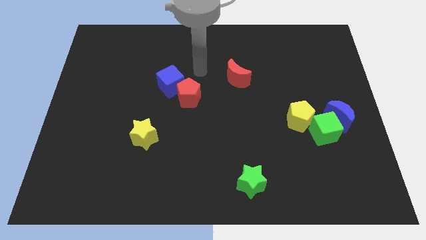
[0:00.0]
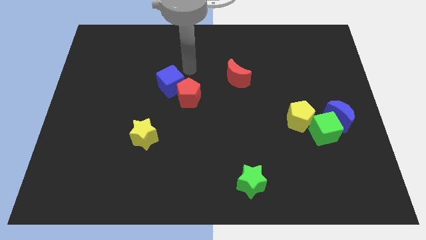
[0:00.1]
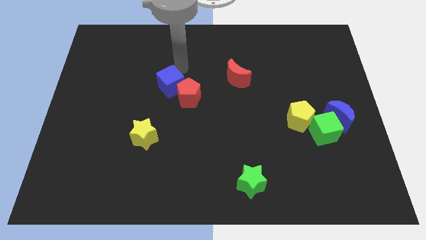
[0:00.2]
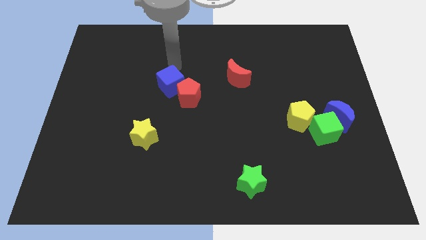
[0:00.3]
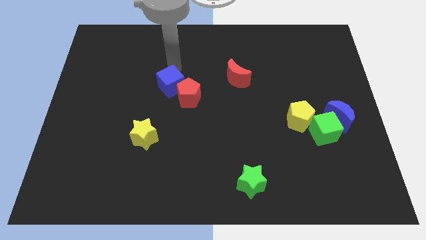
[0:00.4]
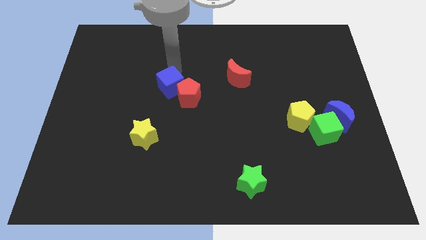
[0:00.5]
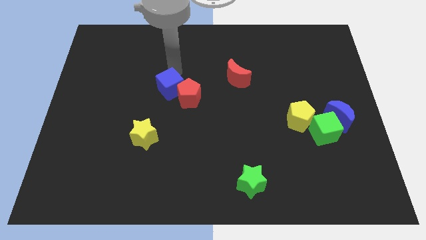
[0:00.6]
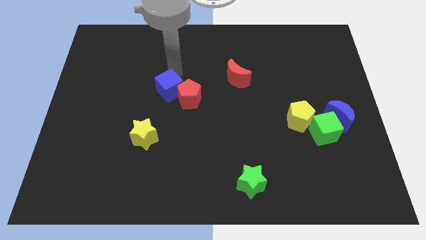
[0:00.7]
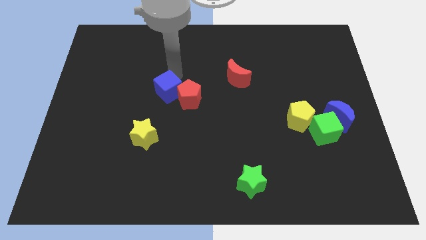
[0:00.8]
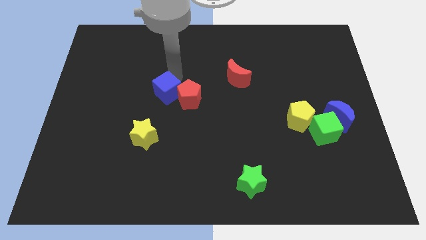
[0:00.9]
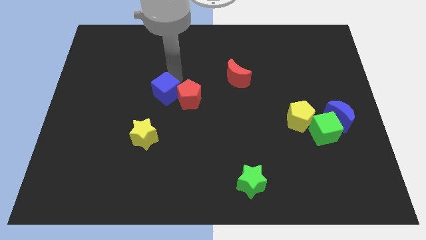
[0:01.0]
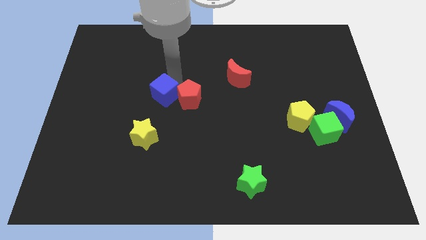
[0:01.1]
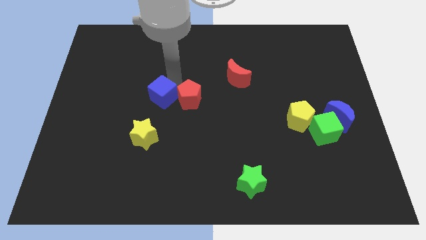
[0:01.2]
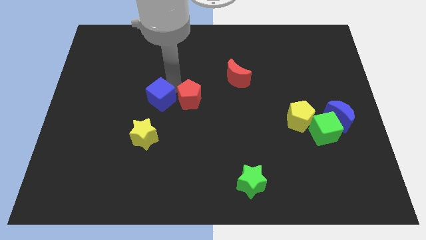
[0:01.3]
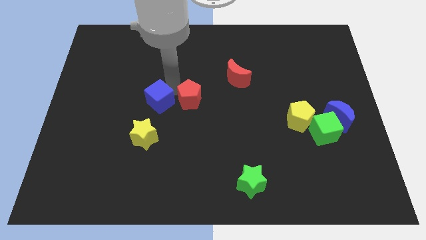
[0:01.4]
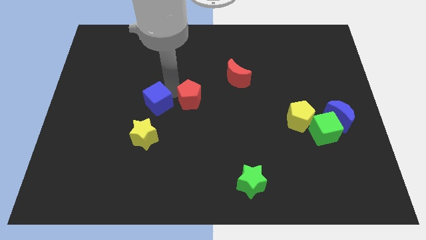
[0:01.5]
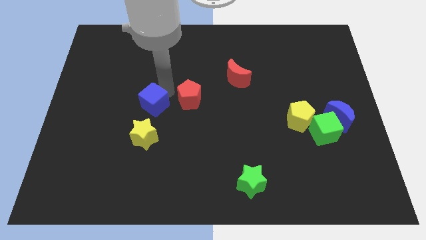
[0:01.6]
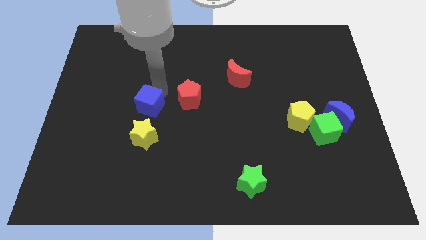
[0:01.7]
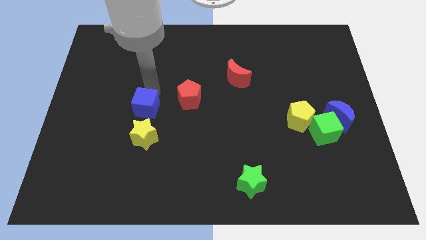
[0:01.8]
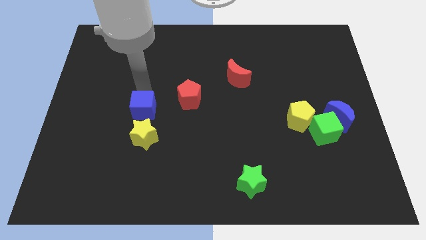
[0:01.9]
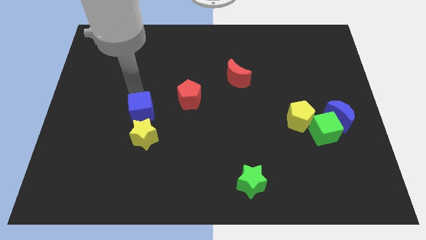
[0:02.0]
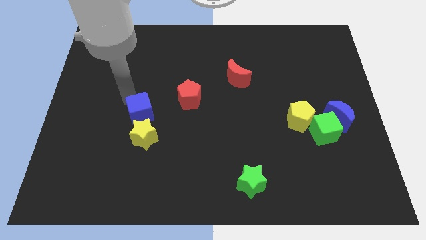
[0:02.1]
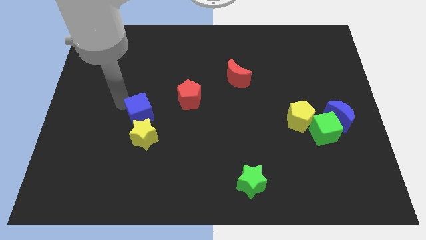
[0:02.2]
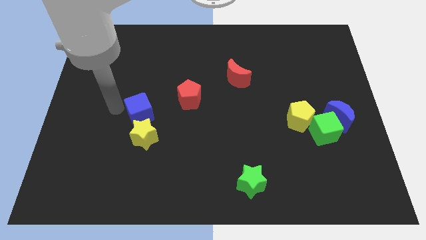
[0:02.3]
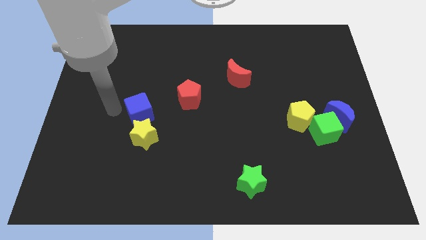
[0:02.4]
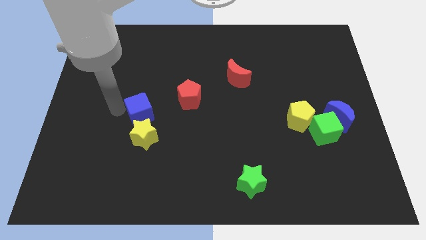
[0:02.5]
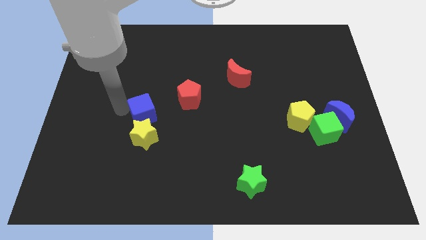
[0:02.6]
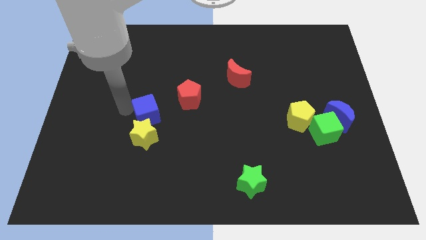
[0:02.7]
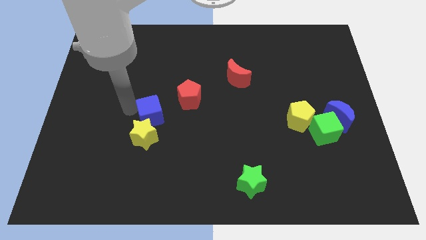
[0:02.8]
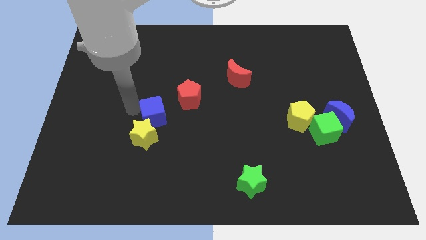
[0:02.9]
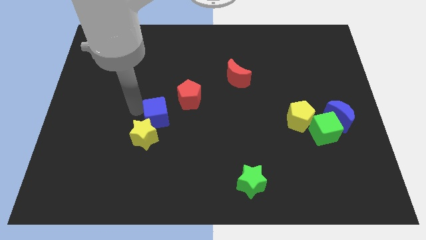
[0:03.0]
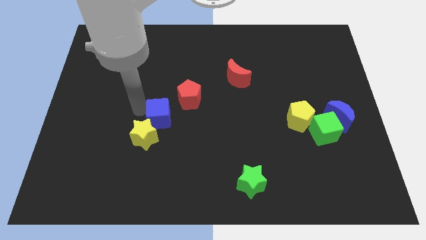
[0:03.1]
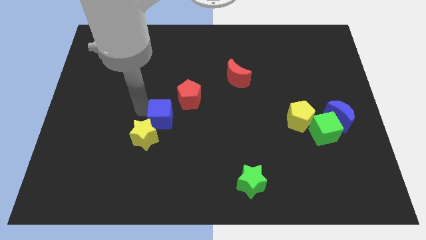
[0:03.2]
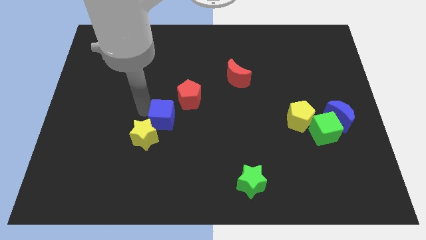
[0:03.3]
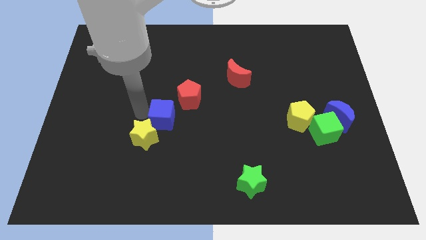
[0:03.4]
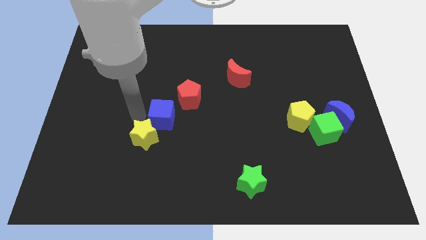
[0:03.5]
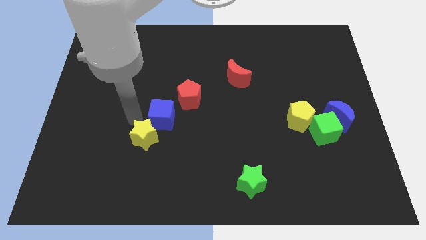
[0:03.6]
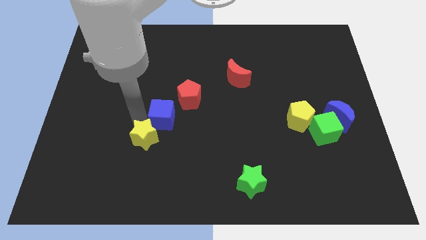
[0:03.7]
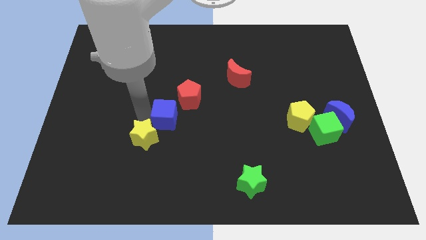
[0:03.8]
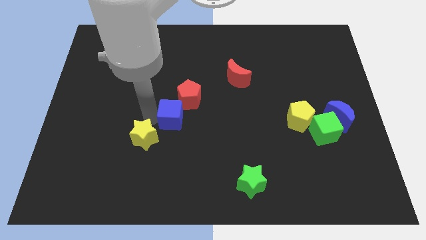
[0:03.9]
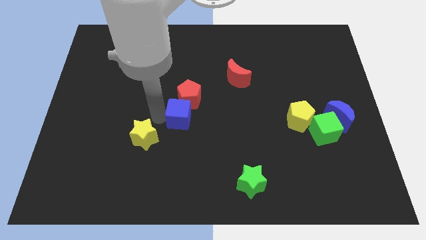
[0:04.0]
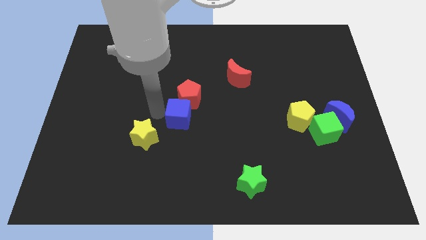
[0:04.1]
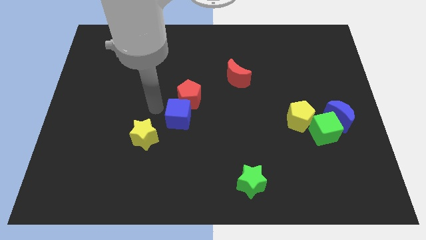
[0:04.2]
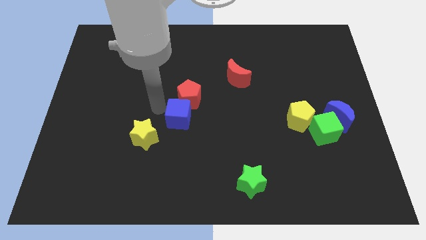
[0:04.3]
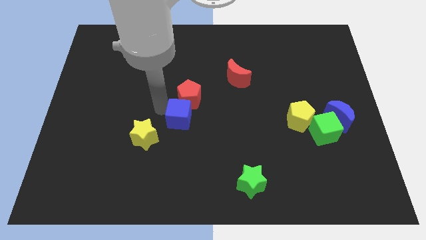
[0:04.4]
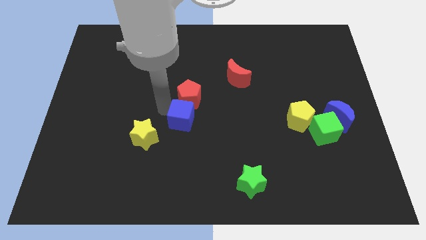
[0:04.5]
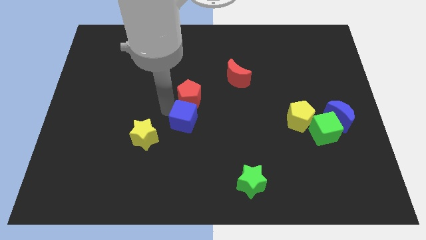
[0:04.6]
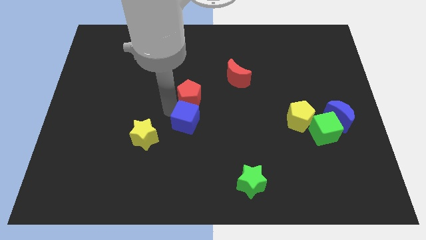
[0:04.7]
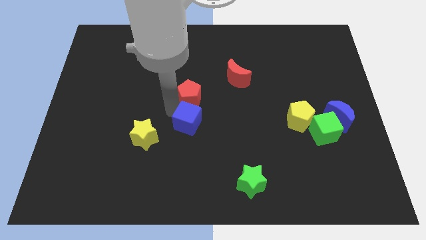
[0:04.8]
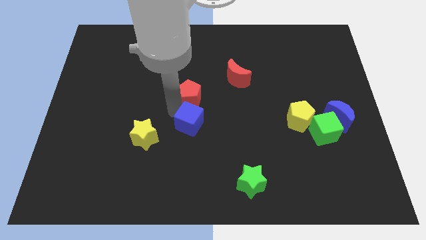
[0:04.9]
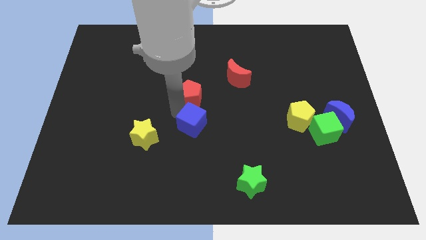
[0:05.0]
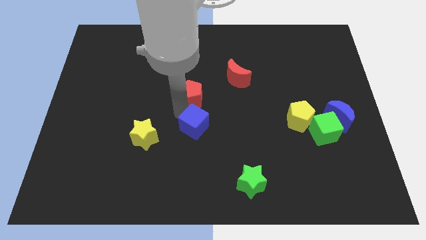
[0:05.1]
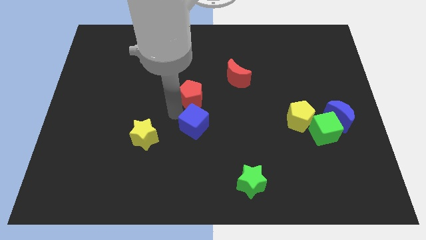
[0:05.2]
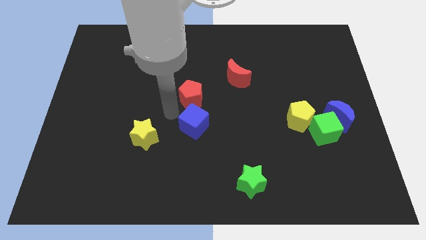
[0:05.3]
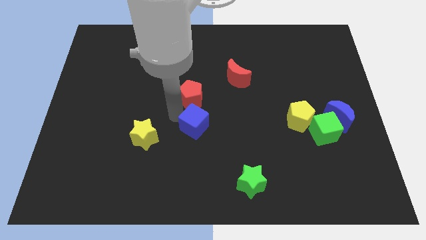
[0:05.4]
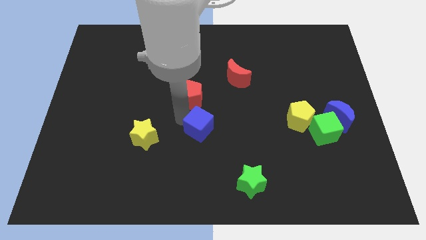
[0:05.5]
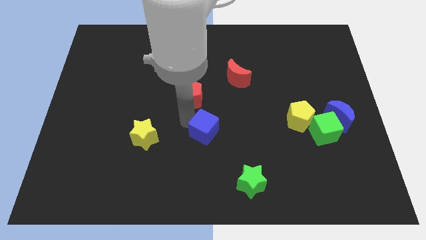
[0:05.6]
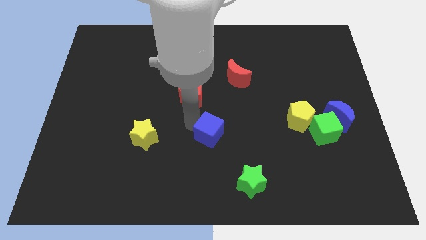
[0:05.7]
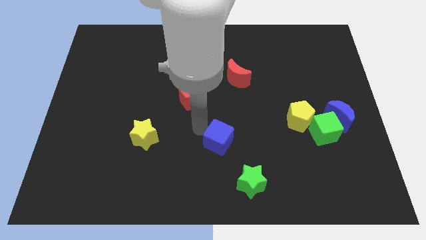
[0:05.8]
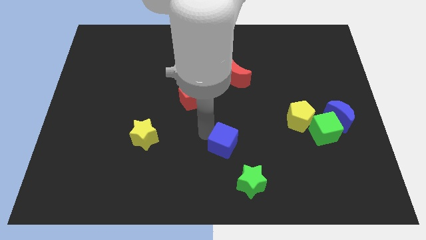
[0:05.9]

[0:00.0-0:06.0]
push the blue cube downwards and to the right

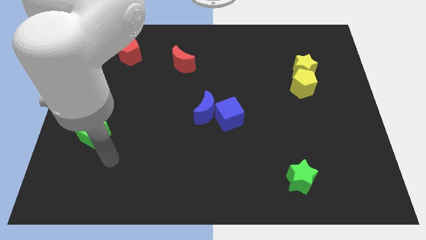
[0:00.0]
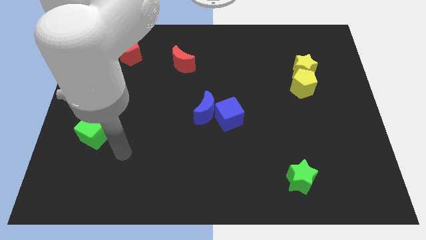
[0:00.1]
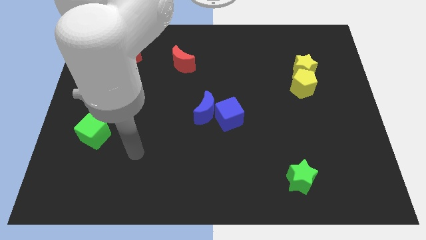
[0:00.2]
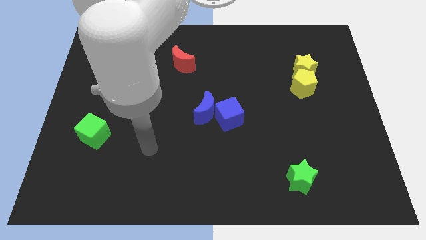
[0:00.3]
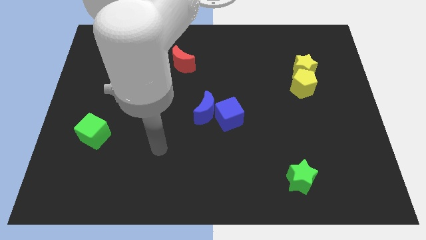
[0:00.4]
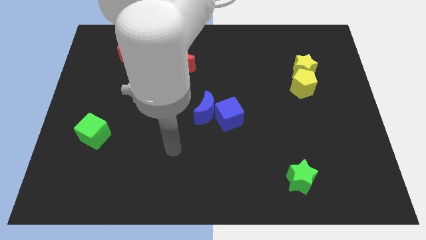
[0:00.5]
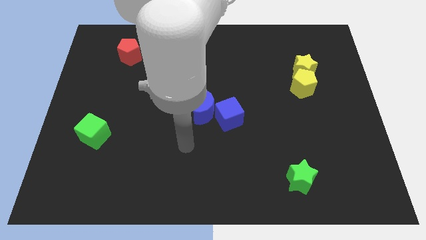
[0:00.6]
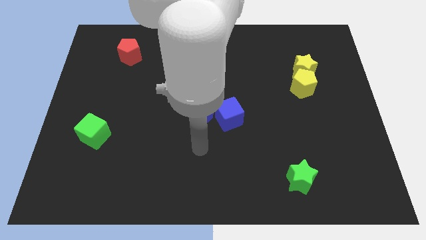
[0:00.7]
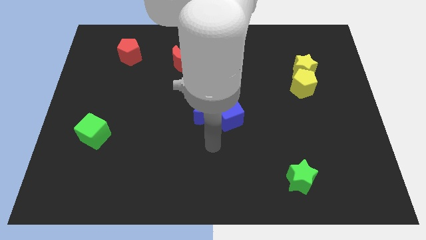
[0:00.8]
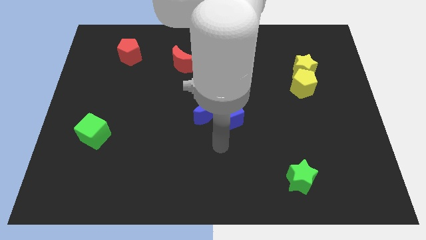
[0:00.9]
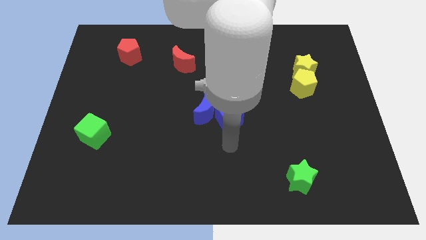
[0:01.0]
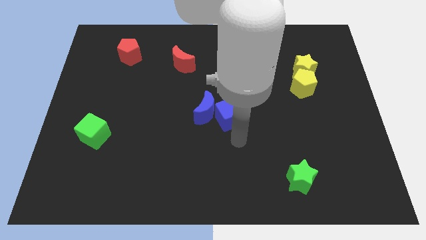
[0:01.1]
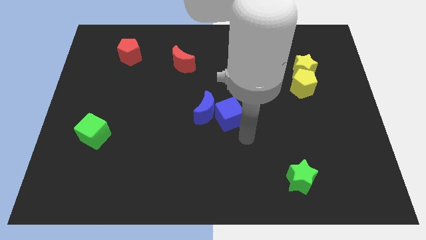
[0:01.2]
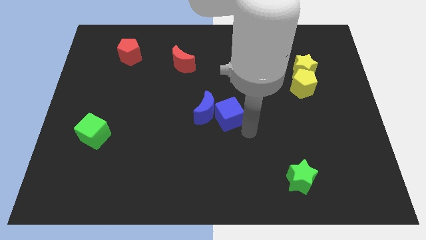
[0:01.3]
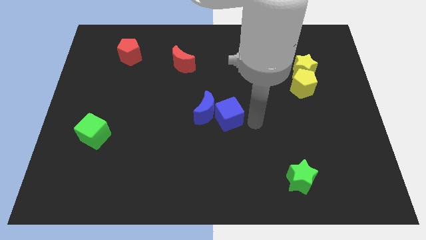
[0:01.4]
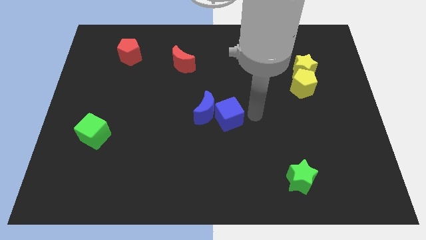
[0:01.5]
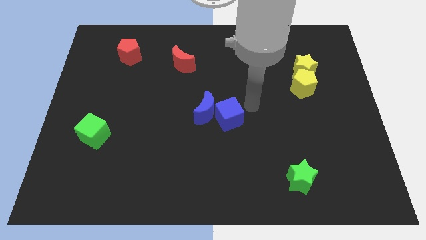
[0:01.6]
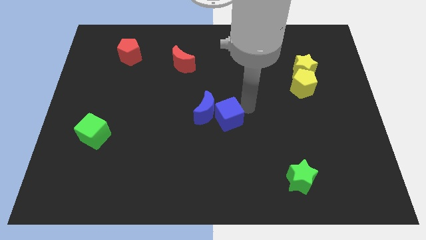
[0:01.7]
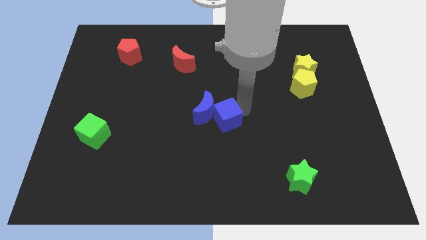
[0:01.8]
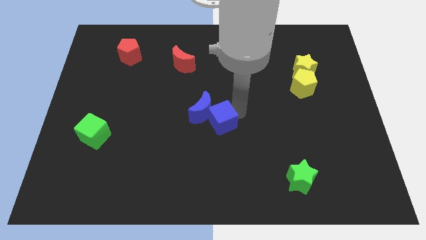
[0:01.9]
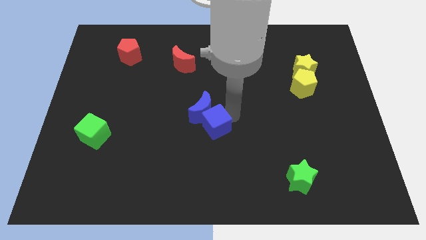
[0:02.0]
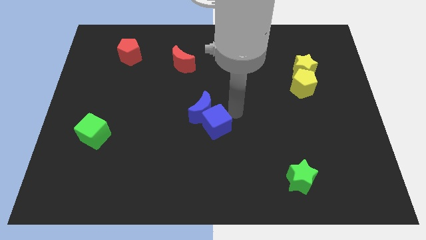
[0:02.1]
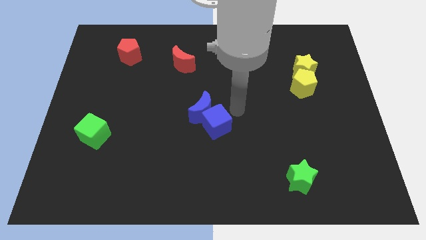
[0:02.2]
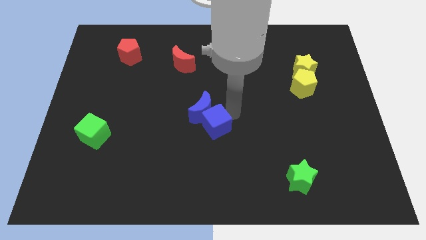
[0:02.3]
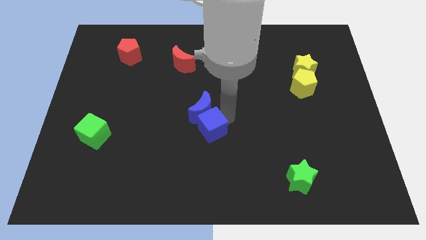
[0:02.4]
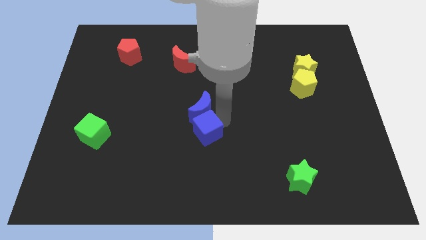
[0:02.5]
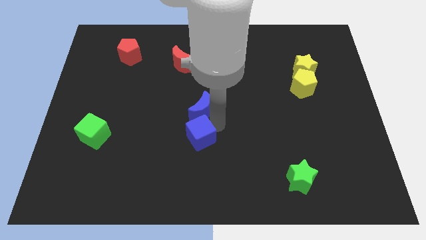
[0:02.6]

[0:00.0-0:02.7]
slide the blue cube diagonally down and left a little

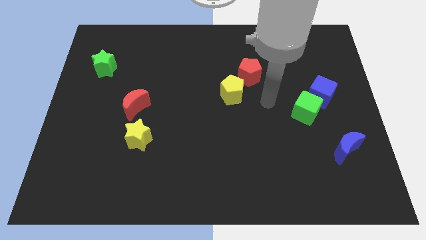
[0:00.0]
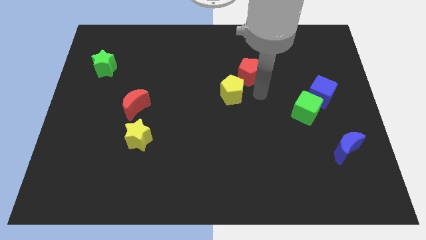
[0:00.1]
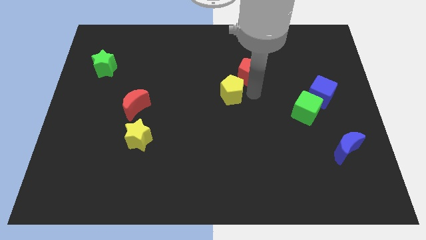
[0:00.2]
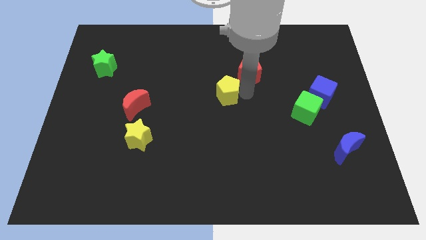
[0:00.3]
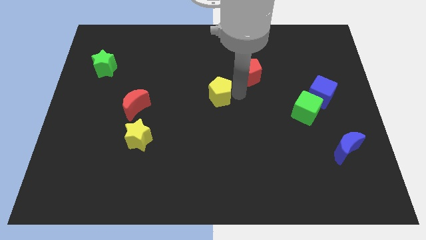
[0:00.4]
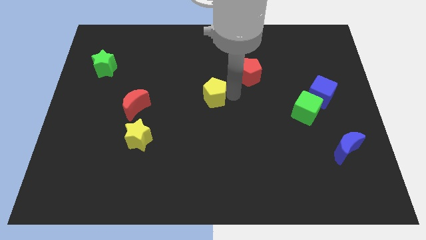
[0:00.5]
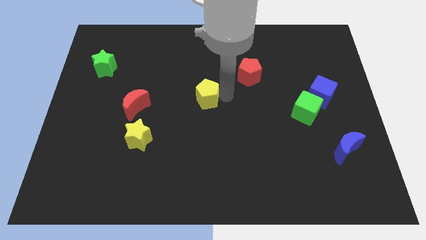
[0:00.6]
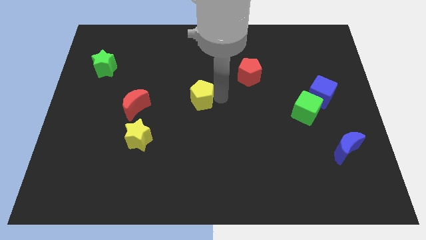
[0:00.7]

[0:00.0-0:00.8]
slightly slide the yellow pentagon left
